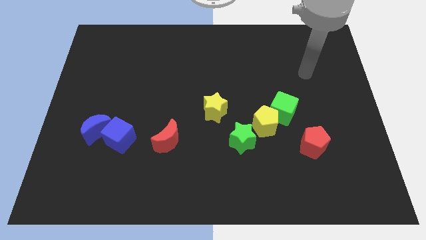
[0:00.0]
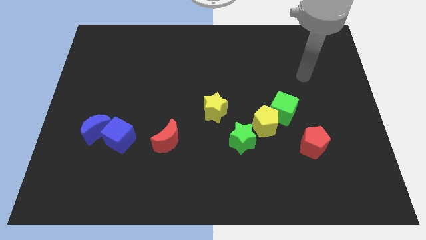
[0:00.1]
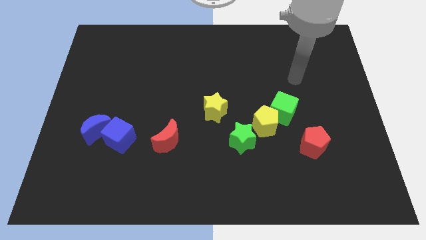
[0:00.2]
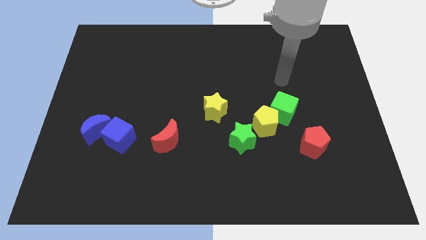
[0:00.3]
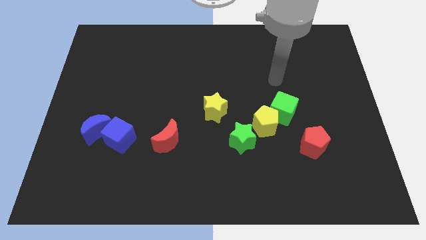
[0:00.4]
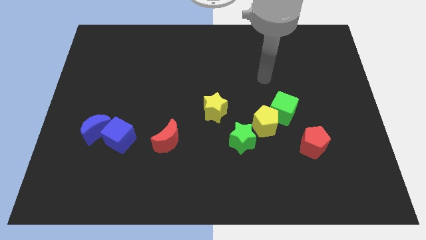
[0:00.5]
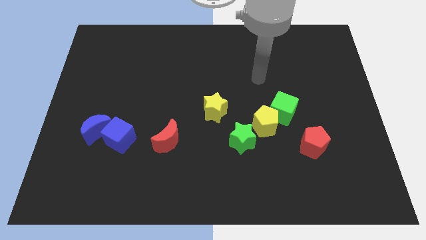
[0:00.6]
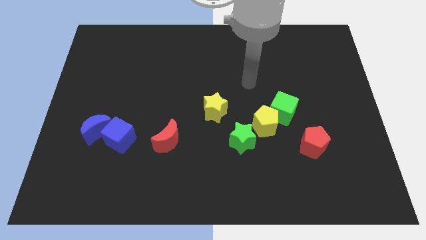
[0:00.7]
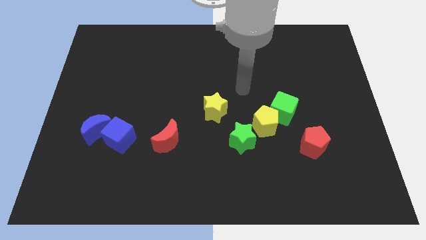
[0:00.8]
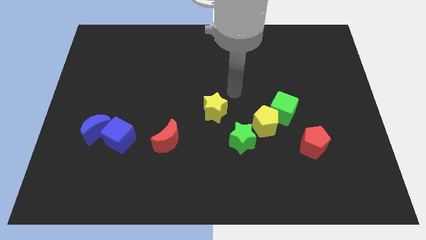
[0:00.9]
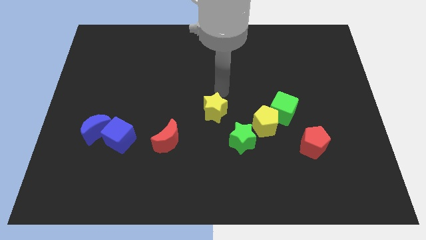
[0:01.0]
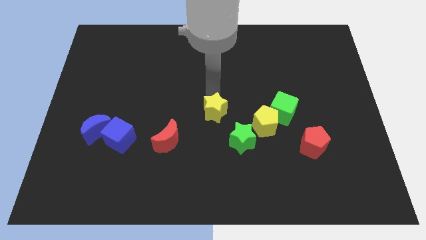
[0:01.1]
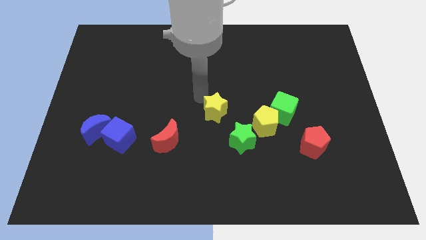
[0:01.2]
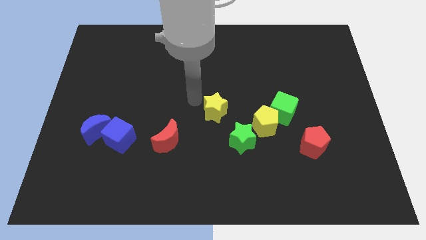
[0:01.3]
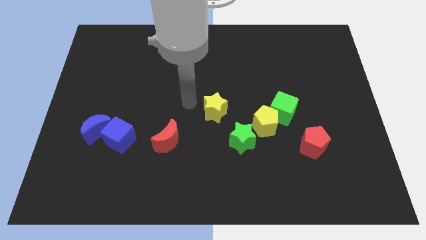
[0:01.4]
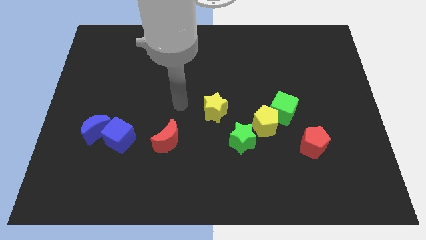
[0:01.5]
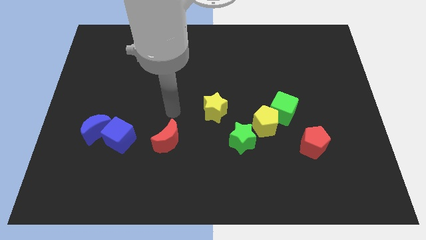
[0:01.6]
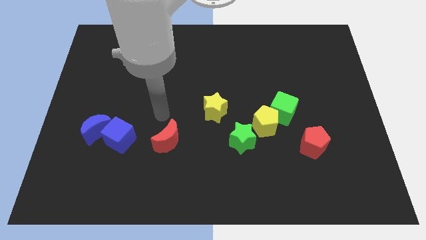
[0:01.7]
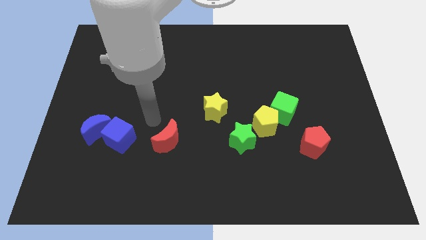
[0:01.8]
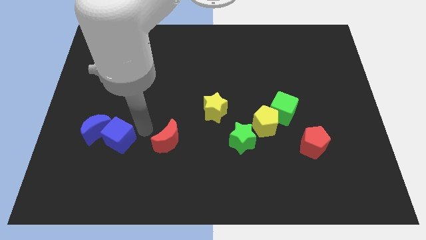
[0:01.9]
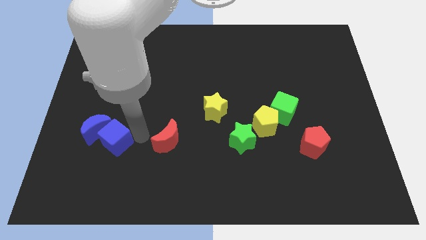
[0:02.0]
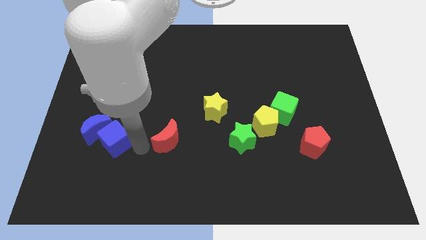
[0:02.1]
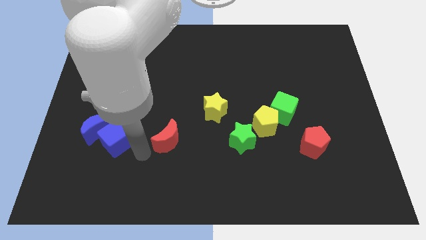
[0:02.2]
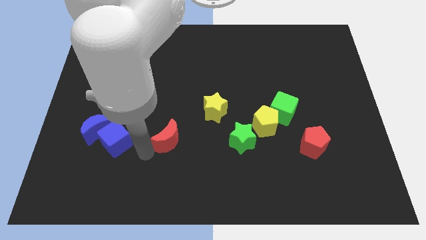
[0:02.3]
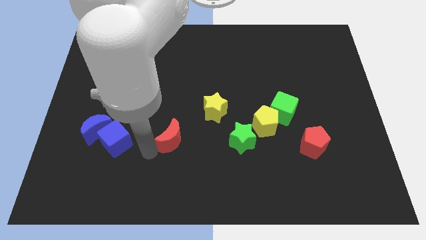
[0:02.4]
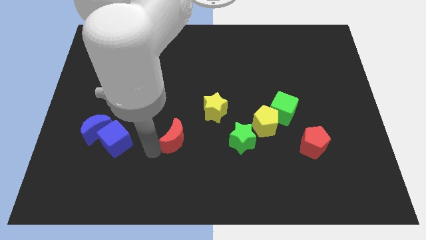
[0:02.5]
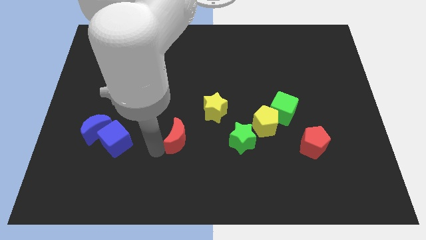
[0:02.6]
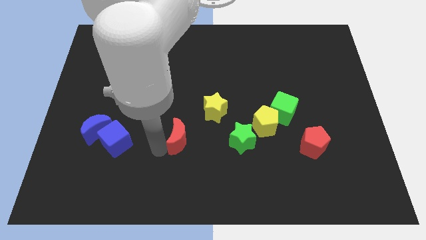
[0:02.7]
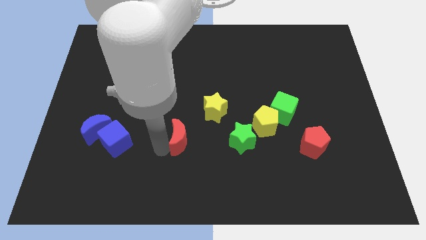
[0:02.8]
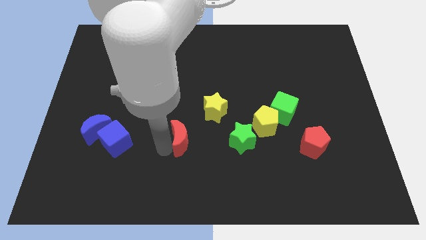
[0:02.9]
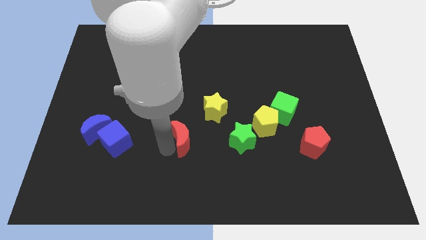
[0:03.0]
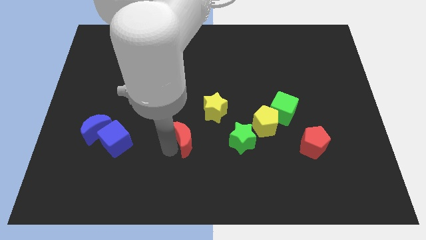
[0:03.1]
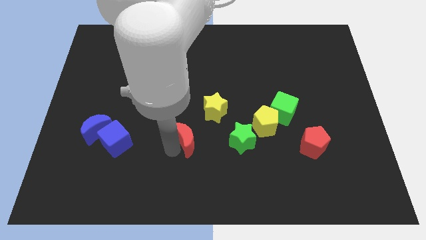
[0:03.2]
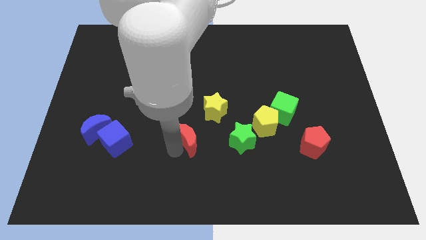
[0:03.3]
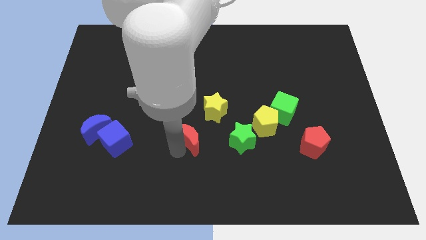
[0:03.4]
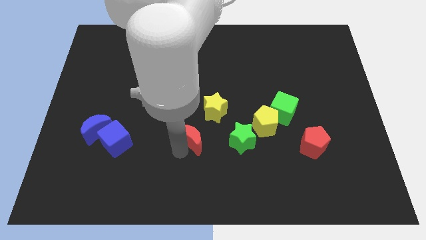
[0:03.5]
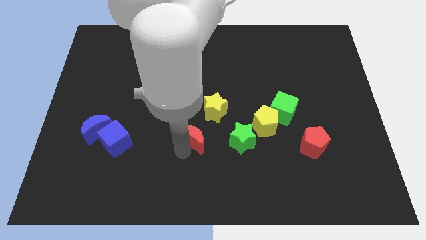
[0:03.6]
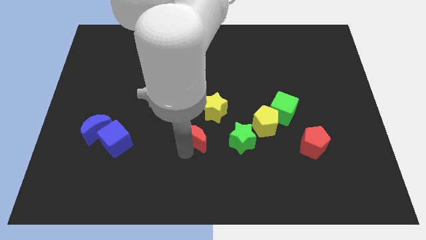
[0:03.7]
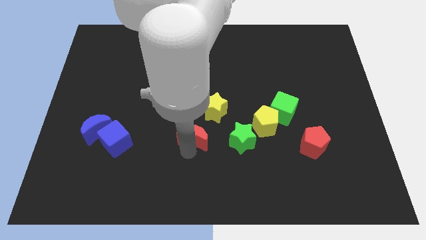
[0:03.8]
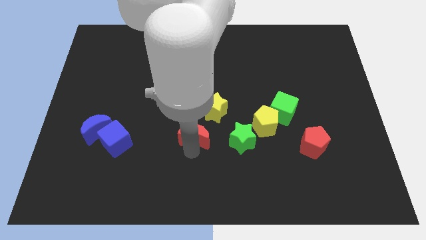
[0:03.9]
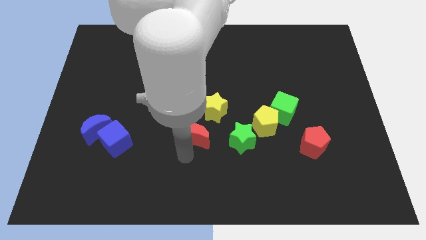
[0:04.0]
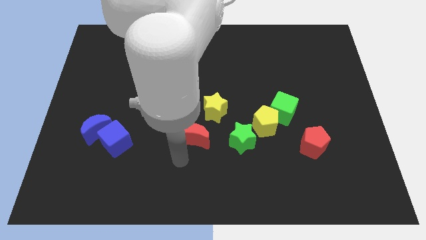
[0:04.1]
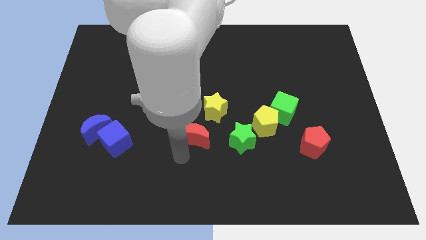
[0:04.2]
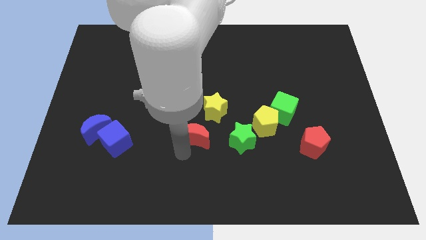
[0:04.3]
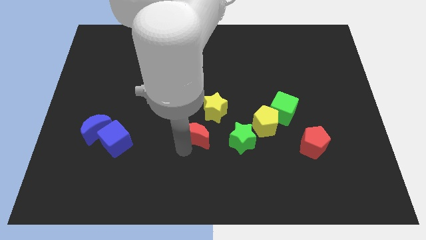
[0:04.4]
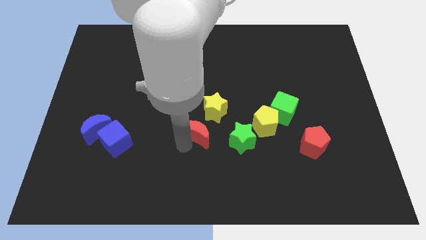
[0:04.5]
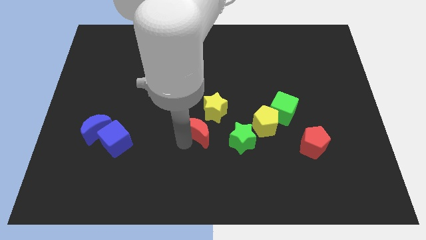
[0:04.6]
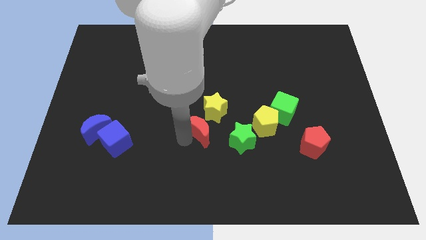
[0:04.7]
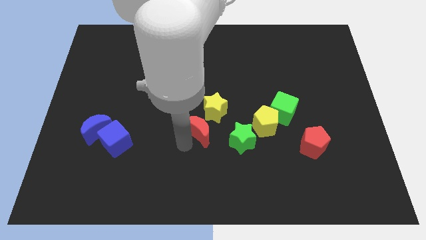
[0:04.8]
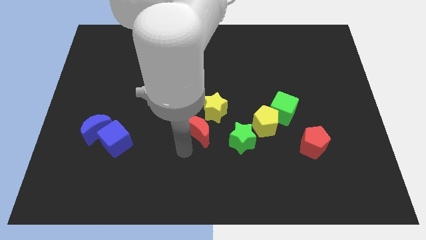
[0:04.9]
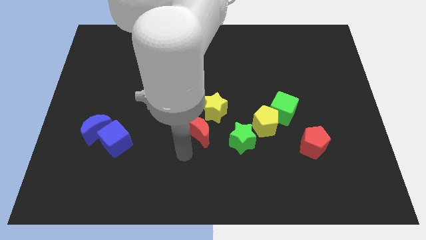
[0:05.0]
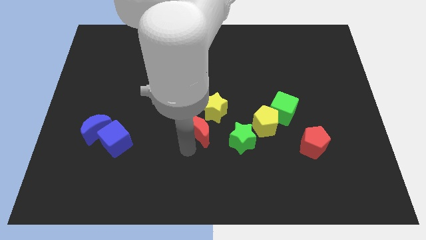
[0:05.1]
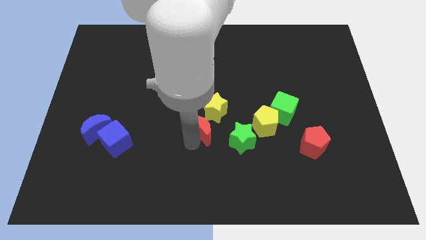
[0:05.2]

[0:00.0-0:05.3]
slide the red moon towards the yellow star
